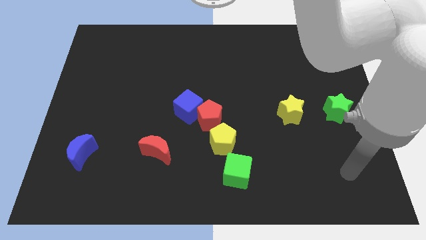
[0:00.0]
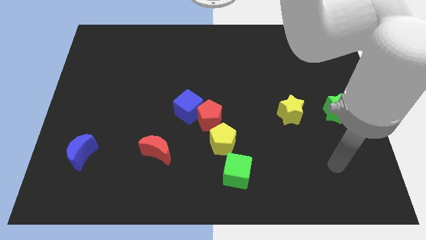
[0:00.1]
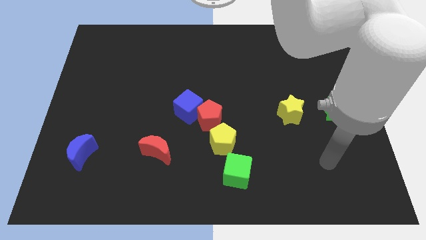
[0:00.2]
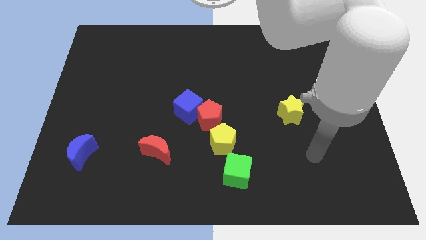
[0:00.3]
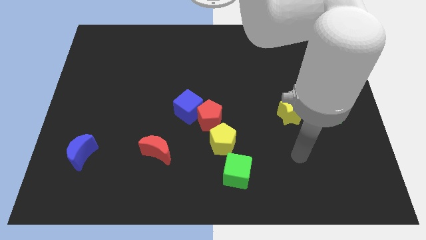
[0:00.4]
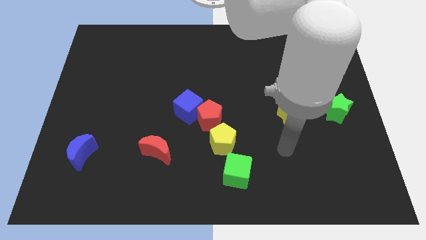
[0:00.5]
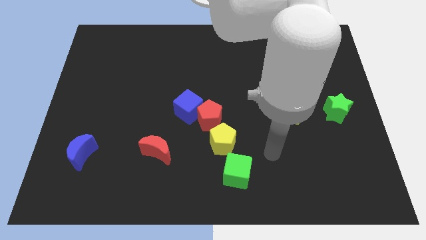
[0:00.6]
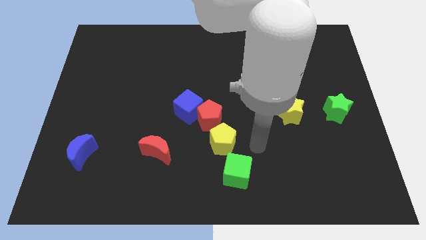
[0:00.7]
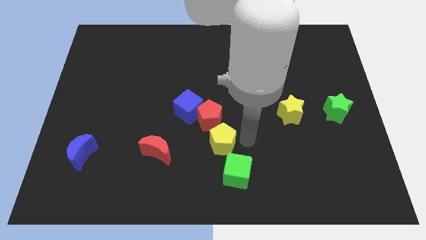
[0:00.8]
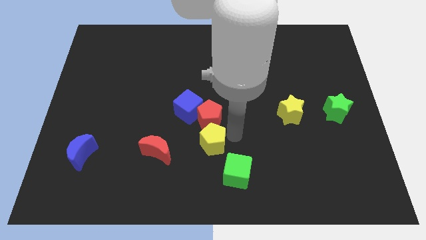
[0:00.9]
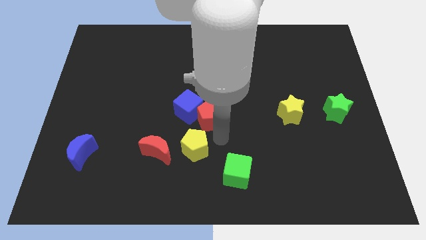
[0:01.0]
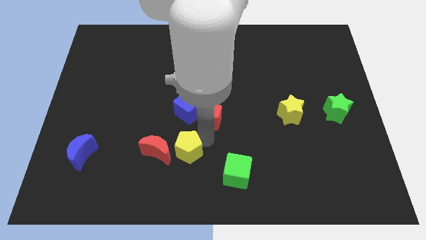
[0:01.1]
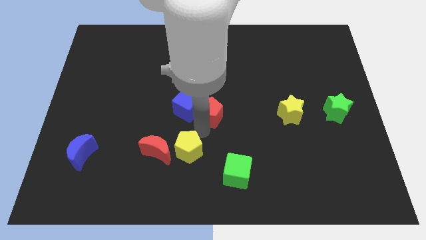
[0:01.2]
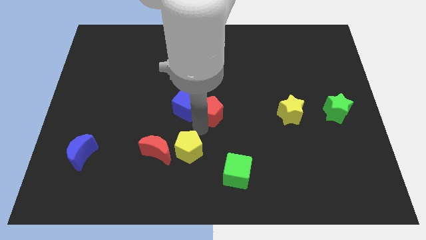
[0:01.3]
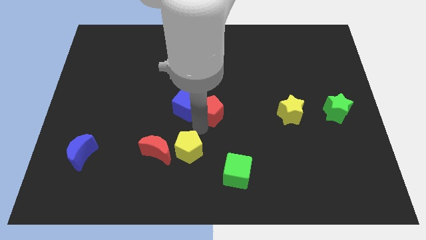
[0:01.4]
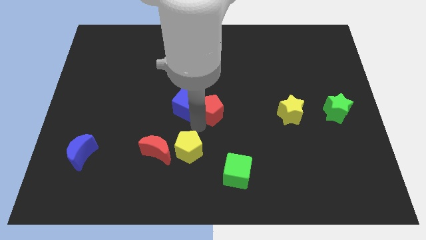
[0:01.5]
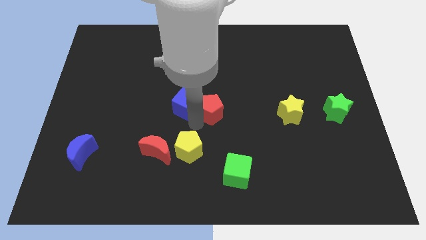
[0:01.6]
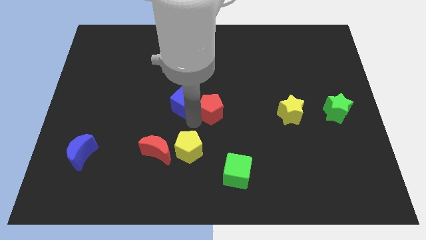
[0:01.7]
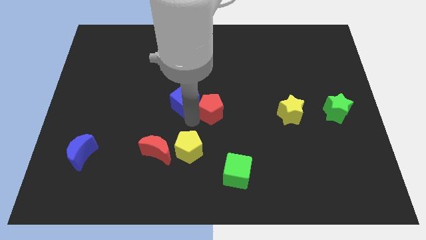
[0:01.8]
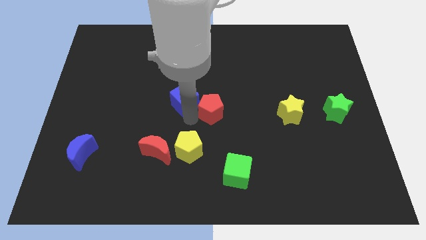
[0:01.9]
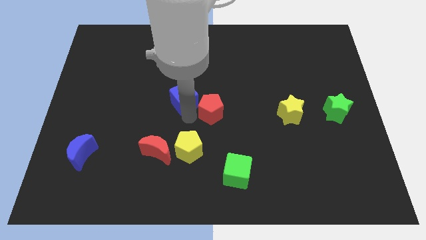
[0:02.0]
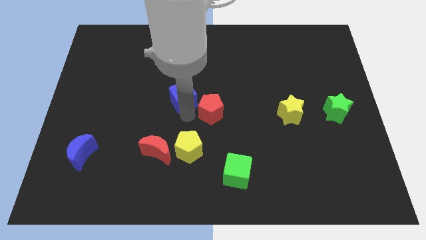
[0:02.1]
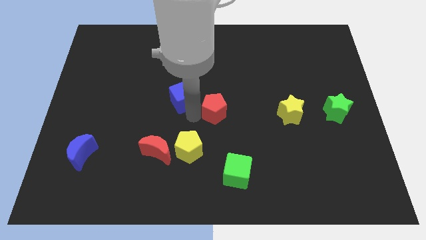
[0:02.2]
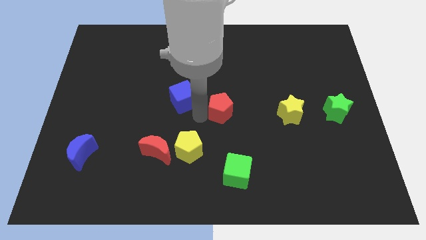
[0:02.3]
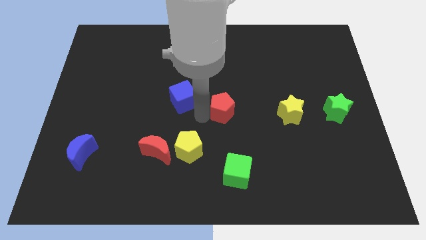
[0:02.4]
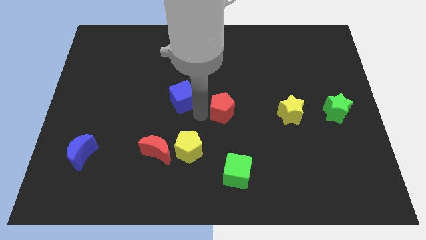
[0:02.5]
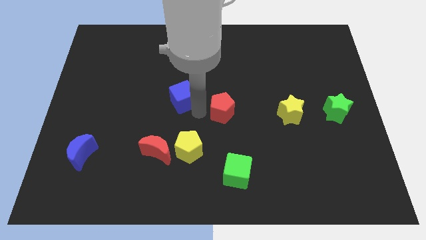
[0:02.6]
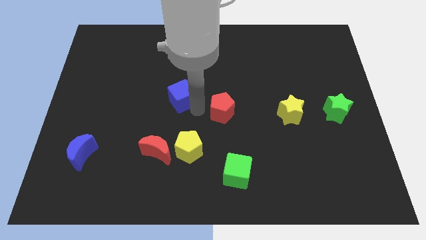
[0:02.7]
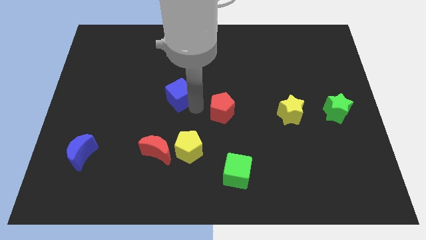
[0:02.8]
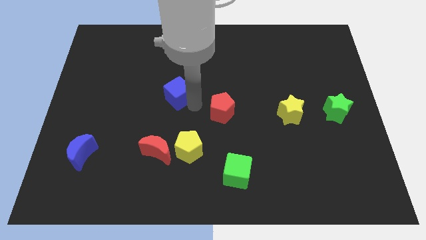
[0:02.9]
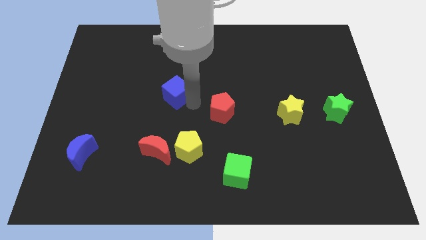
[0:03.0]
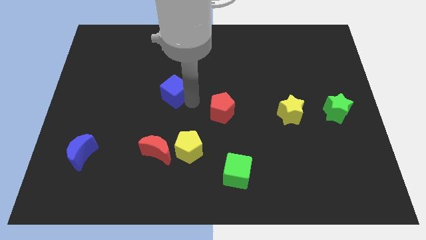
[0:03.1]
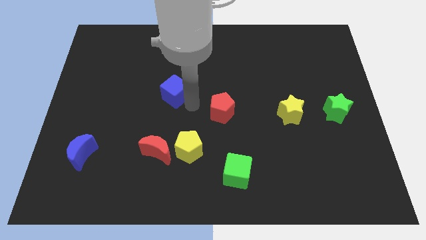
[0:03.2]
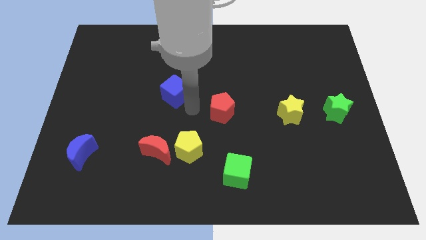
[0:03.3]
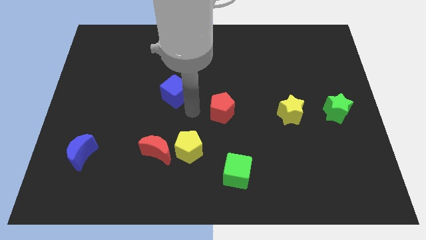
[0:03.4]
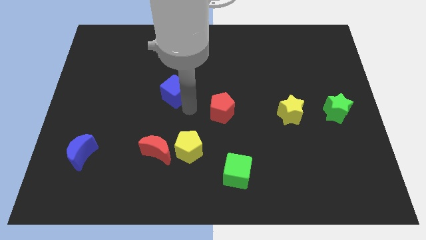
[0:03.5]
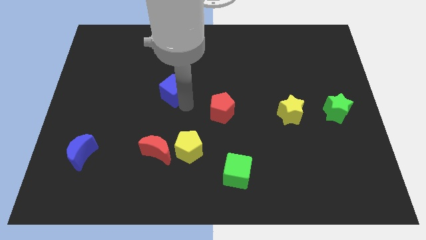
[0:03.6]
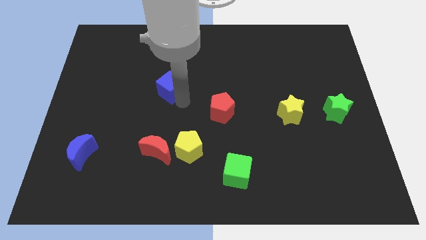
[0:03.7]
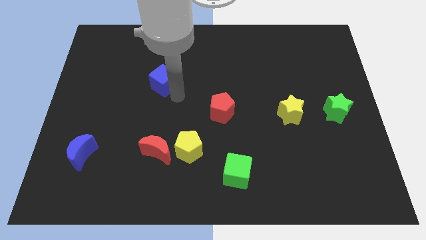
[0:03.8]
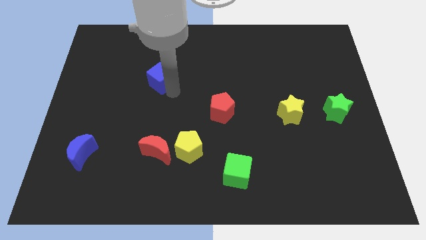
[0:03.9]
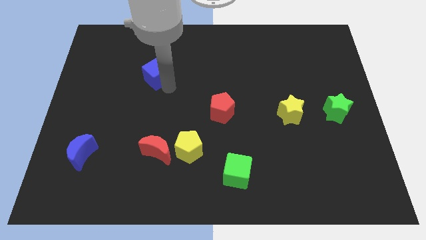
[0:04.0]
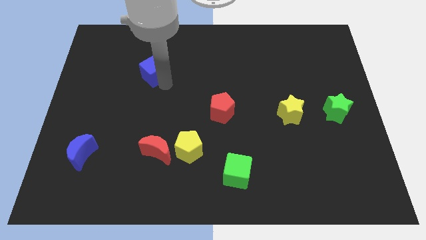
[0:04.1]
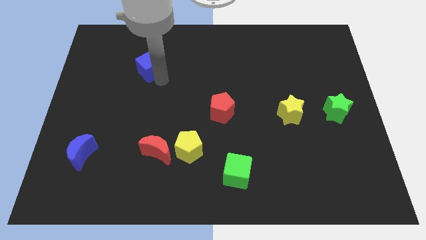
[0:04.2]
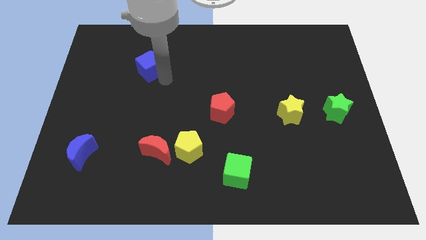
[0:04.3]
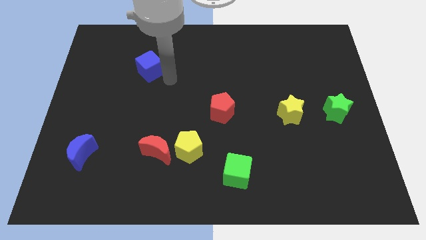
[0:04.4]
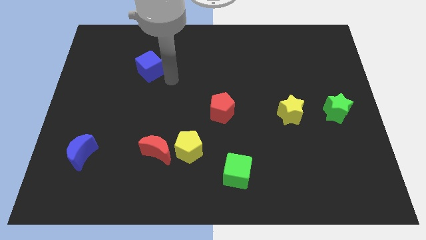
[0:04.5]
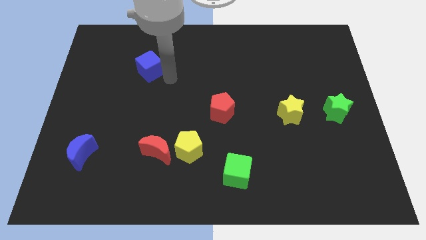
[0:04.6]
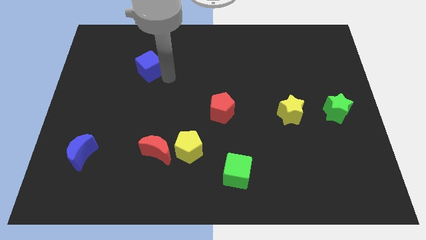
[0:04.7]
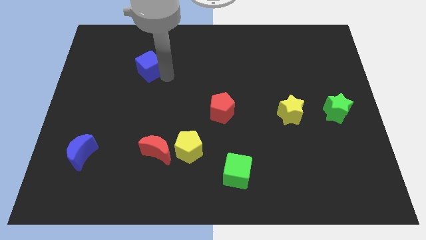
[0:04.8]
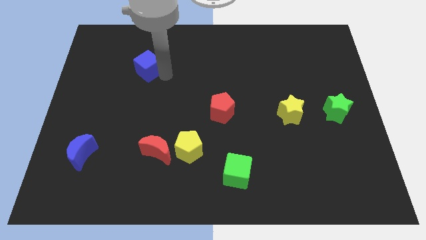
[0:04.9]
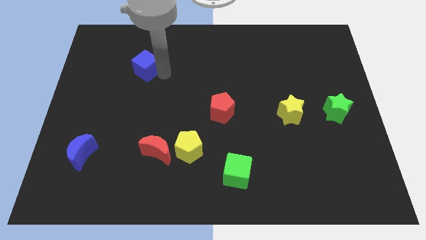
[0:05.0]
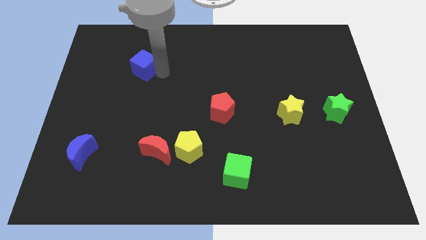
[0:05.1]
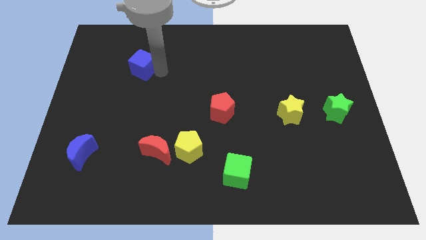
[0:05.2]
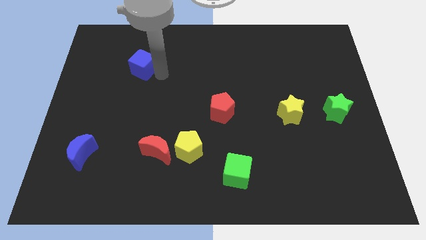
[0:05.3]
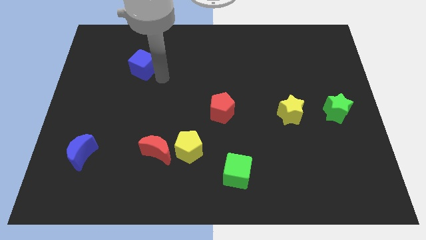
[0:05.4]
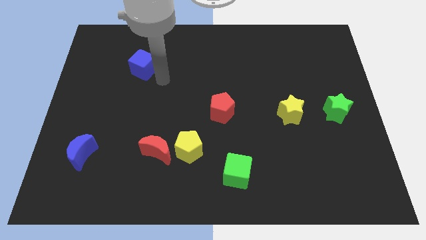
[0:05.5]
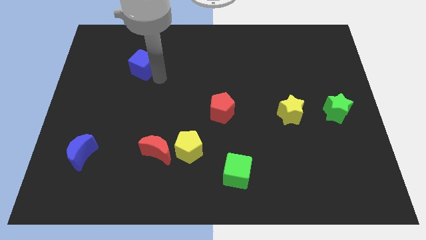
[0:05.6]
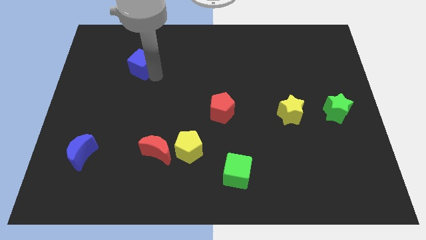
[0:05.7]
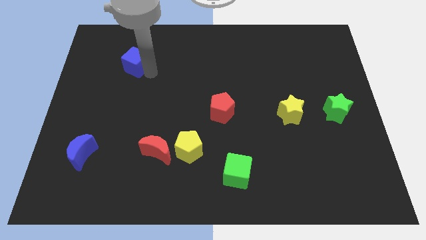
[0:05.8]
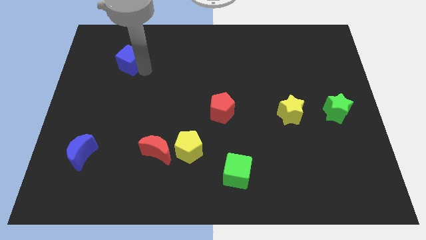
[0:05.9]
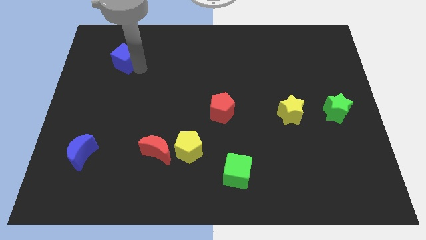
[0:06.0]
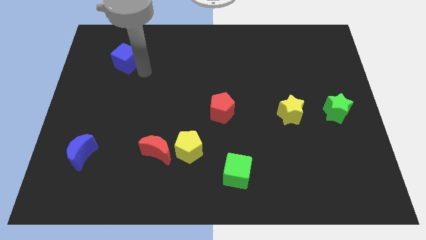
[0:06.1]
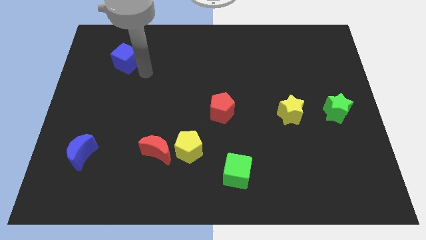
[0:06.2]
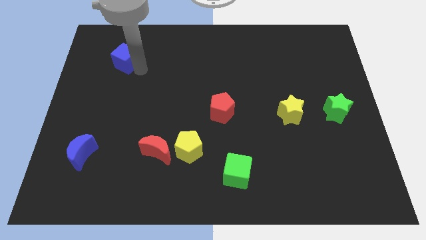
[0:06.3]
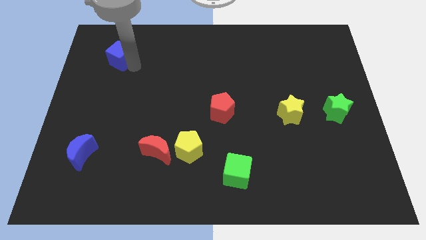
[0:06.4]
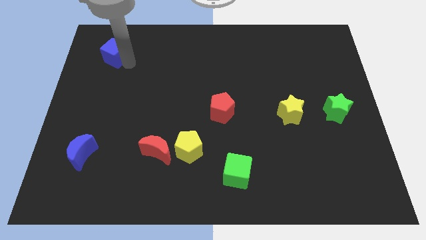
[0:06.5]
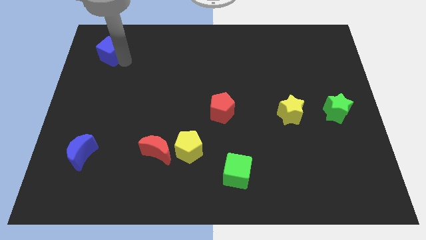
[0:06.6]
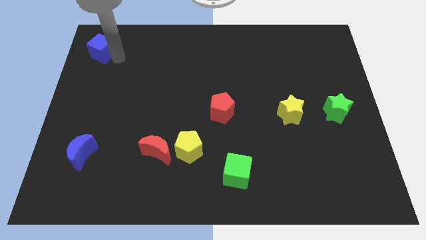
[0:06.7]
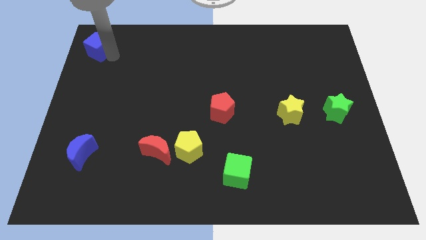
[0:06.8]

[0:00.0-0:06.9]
slide the blue cube to the top left
